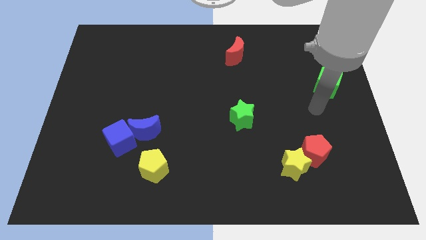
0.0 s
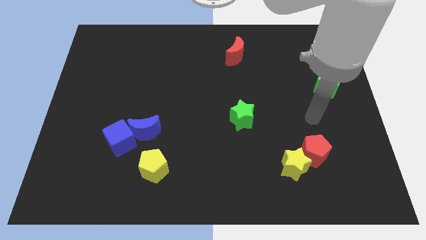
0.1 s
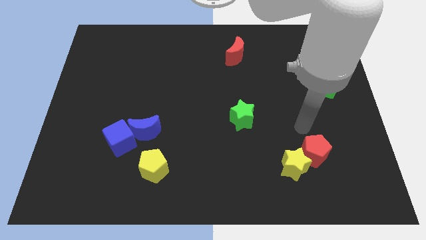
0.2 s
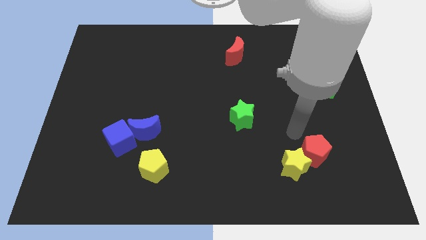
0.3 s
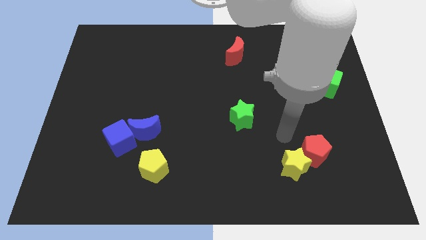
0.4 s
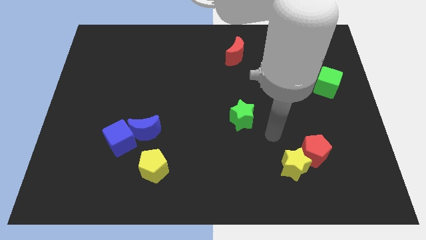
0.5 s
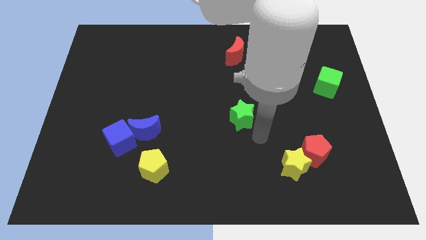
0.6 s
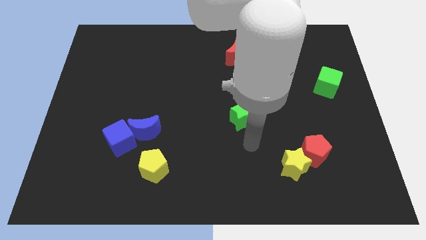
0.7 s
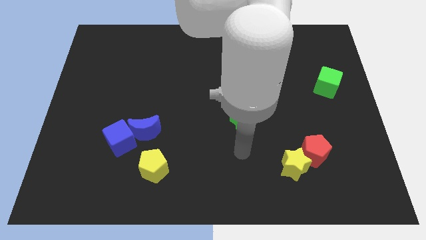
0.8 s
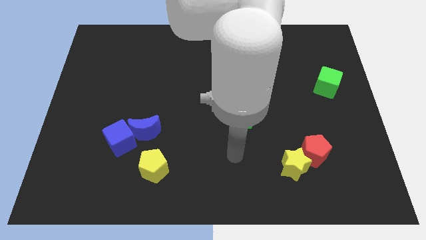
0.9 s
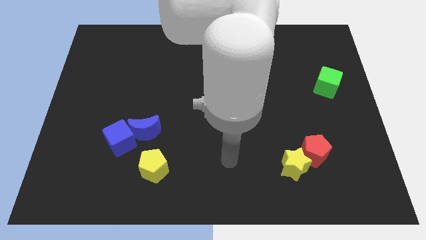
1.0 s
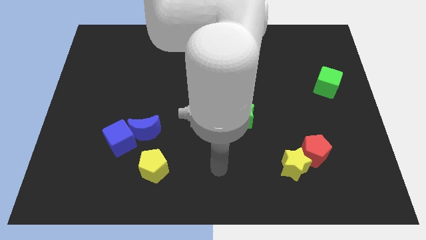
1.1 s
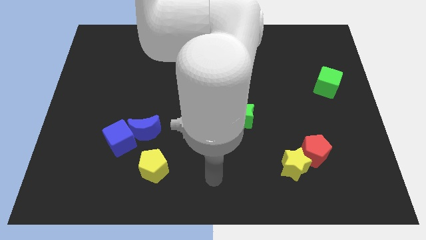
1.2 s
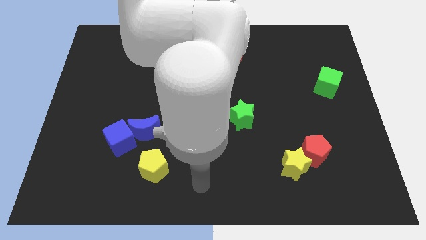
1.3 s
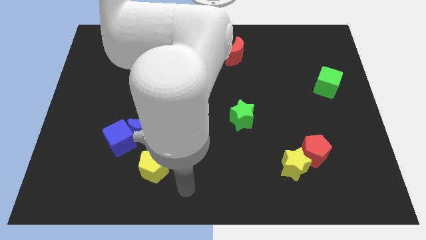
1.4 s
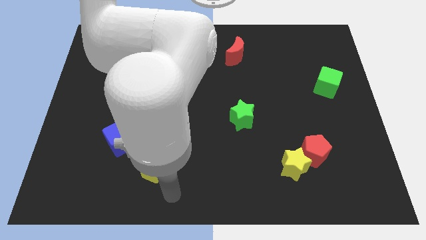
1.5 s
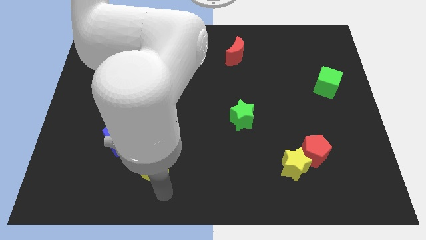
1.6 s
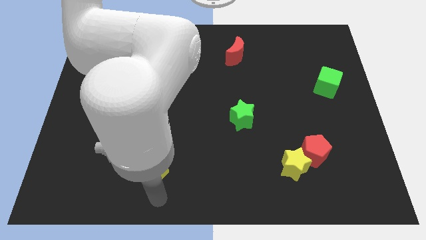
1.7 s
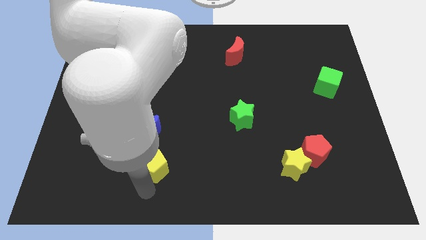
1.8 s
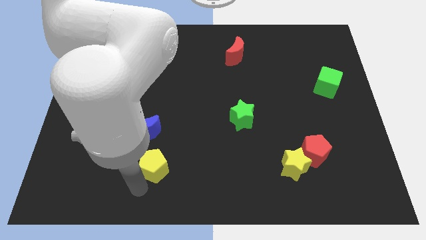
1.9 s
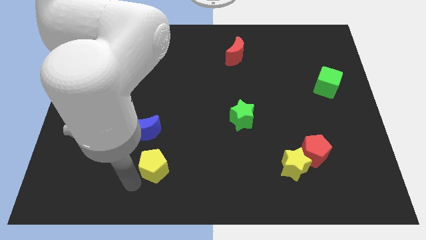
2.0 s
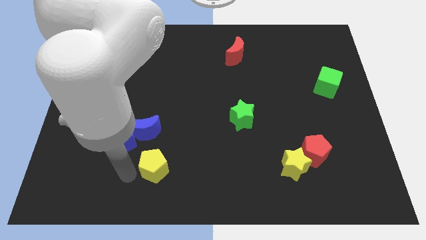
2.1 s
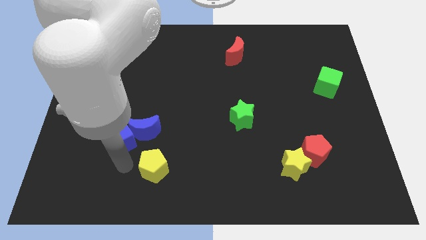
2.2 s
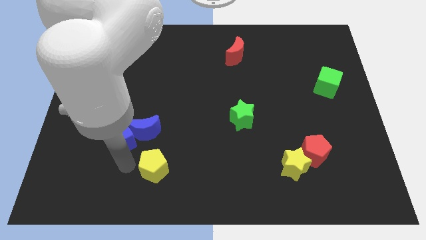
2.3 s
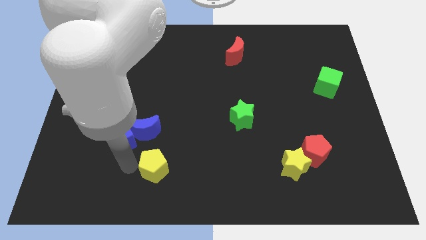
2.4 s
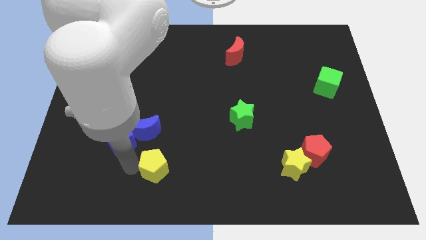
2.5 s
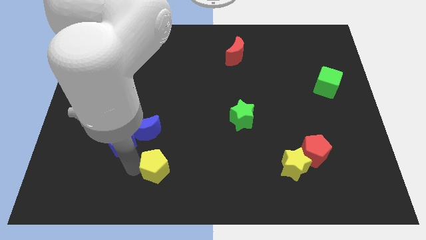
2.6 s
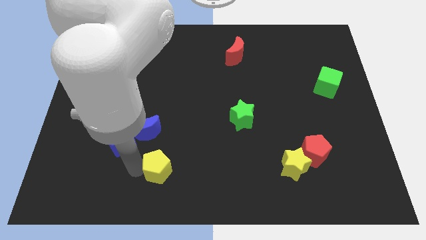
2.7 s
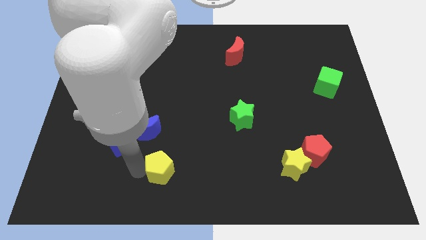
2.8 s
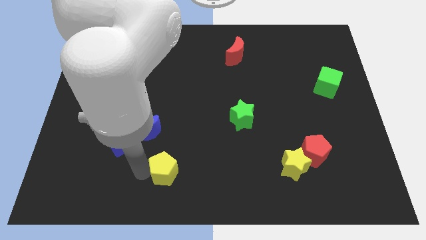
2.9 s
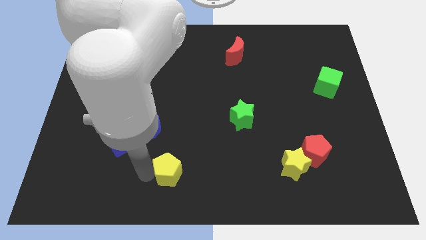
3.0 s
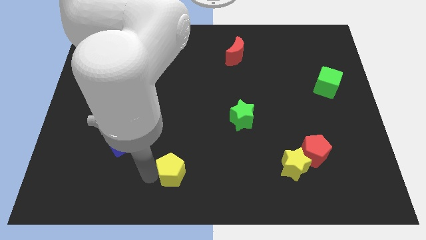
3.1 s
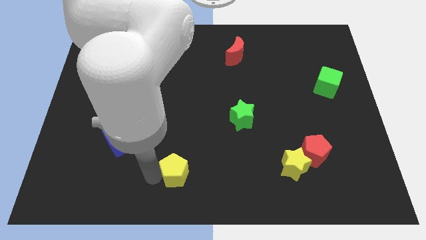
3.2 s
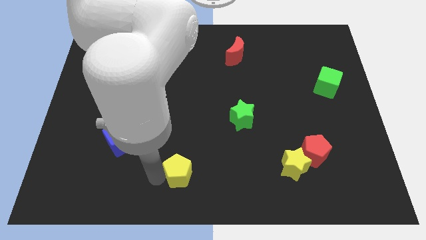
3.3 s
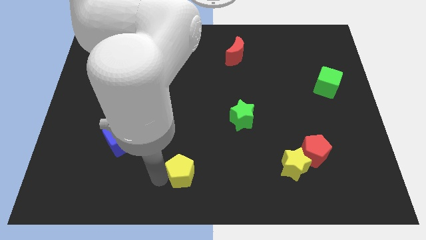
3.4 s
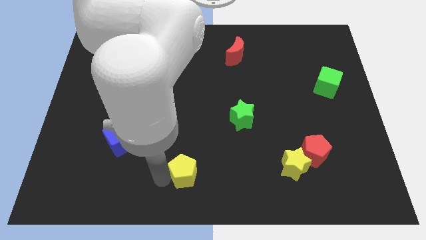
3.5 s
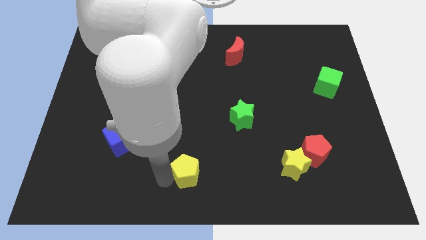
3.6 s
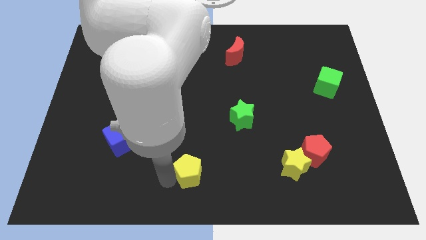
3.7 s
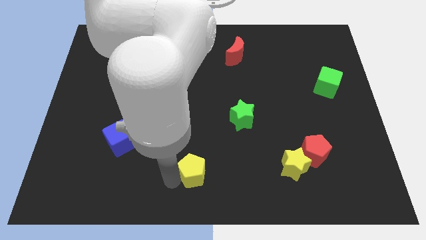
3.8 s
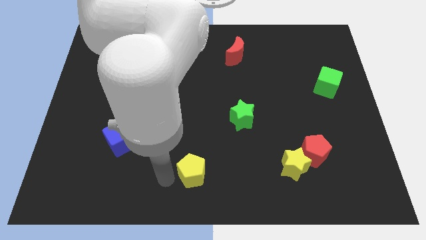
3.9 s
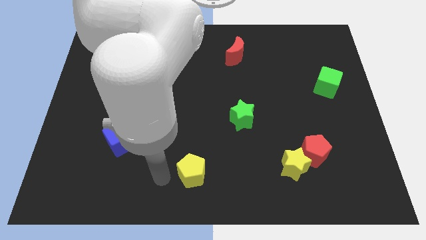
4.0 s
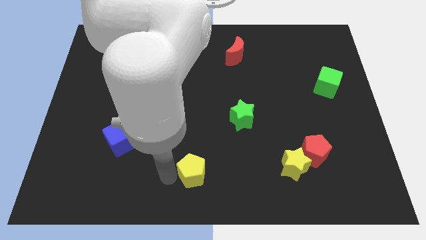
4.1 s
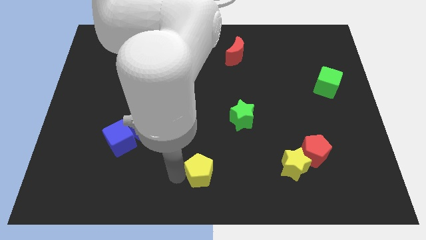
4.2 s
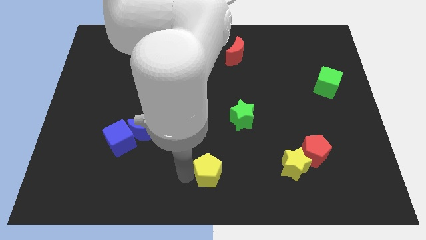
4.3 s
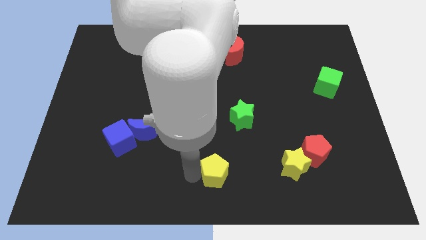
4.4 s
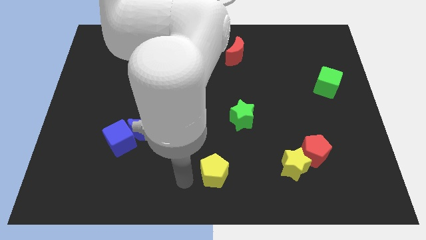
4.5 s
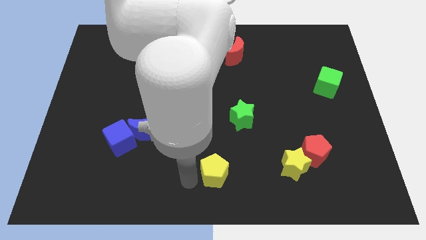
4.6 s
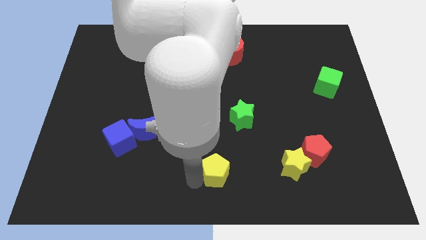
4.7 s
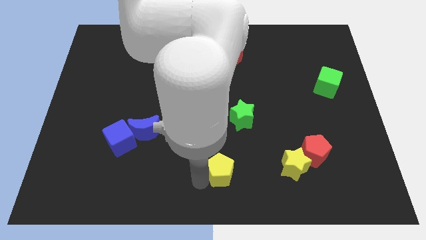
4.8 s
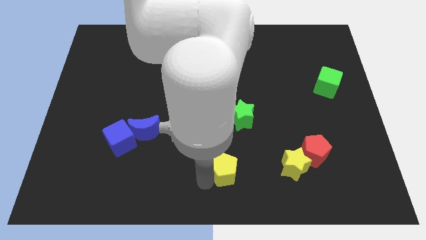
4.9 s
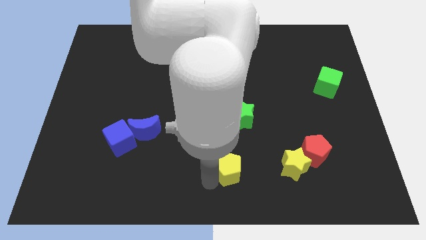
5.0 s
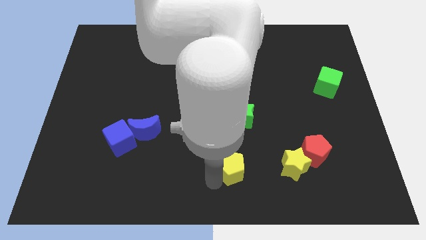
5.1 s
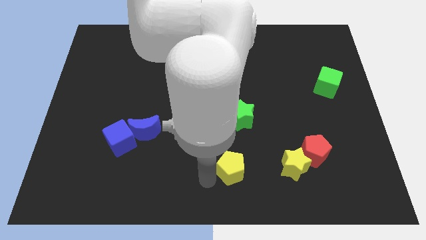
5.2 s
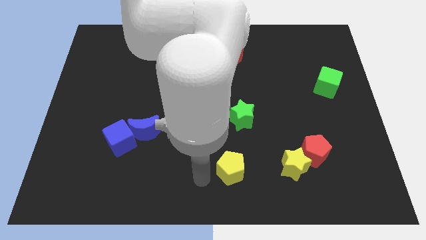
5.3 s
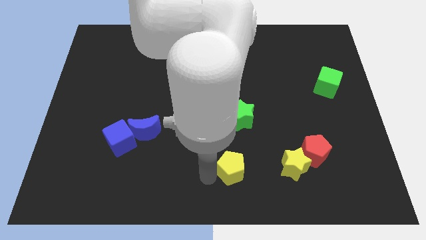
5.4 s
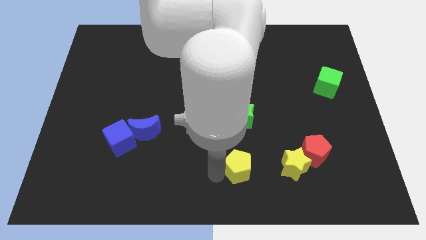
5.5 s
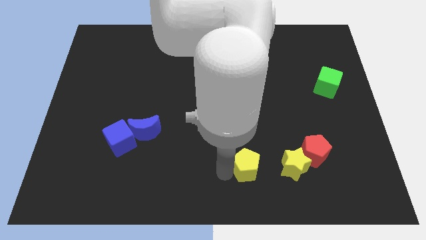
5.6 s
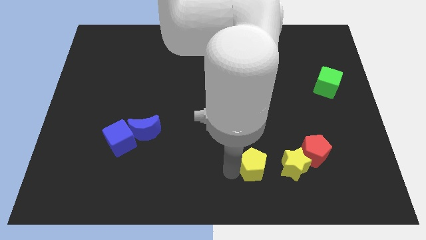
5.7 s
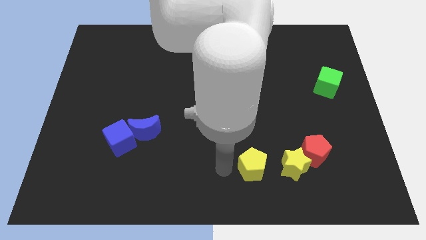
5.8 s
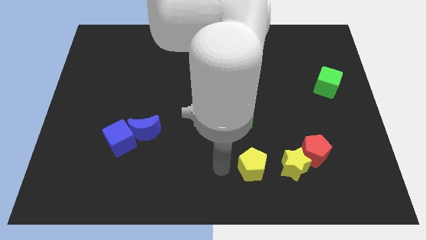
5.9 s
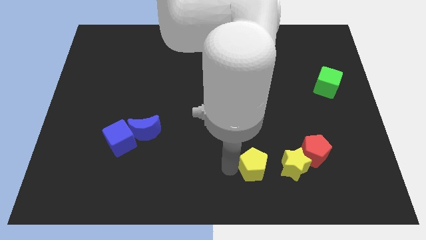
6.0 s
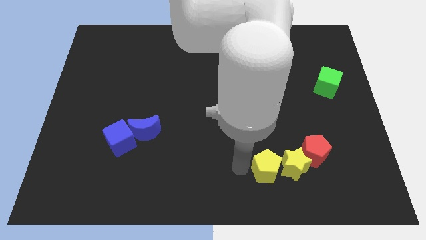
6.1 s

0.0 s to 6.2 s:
slide the yellow pentagon to the yellow star

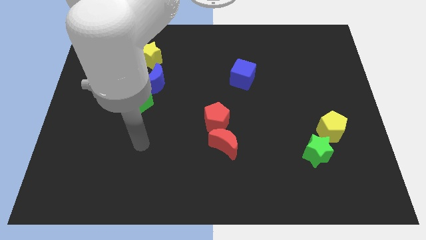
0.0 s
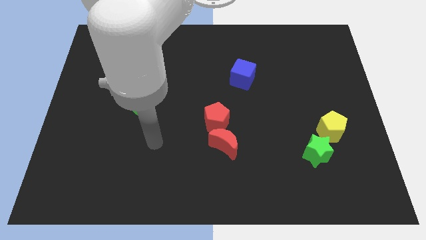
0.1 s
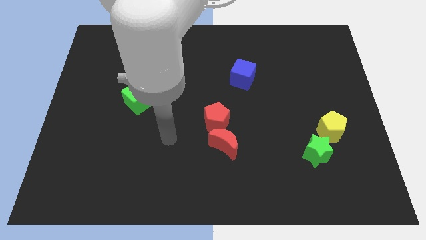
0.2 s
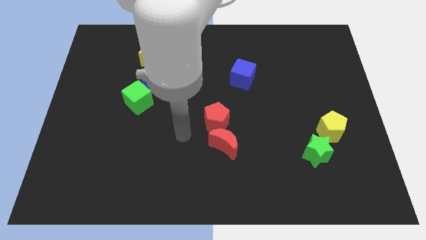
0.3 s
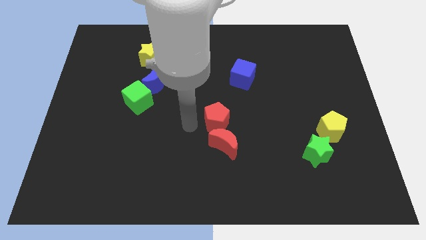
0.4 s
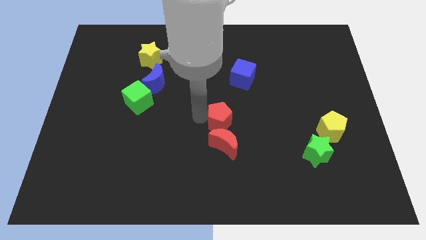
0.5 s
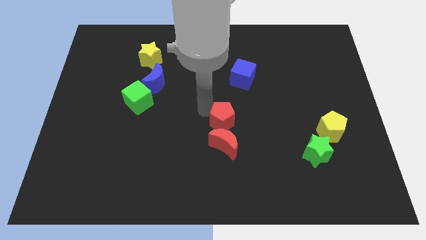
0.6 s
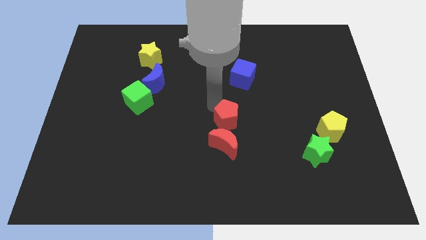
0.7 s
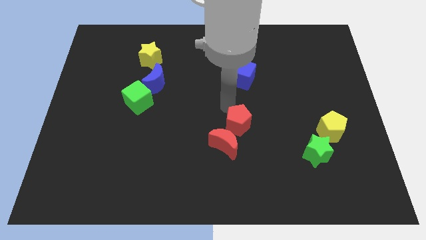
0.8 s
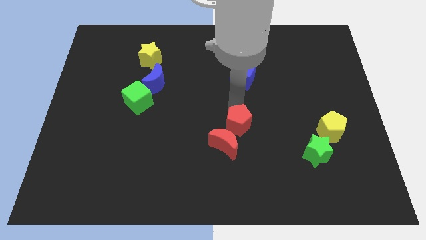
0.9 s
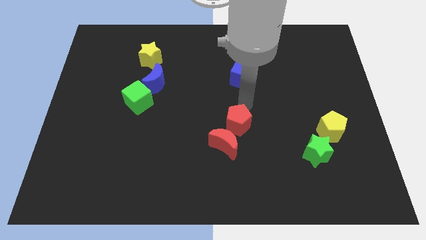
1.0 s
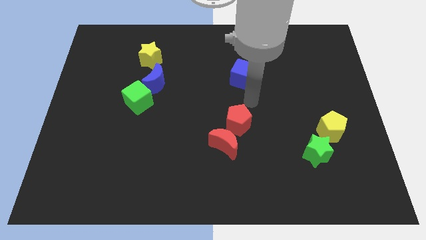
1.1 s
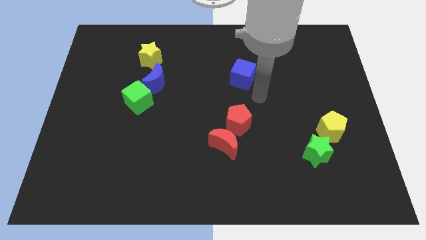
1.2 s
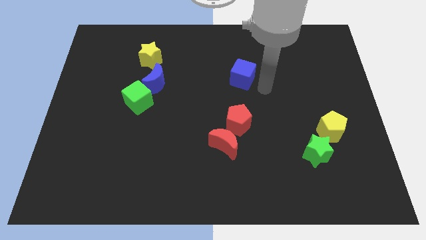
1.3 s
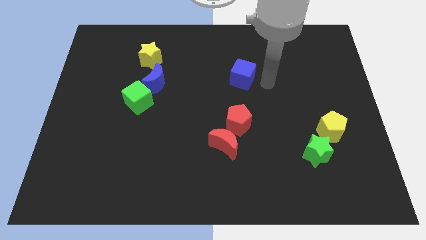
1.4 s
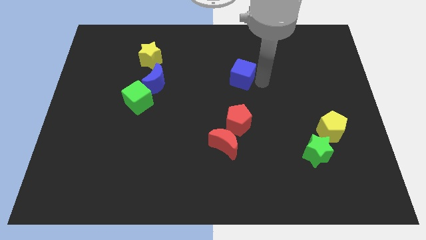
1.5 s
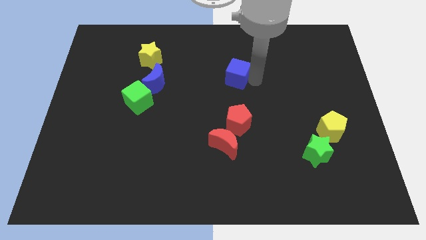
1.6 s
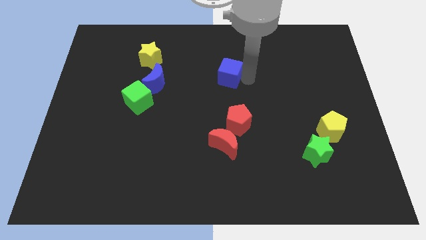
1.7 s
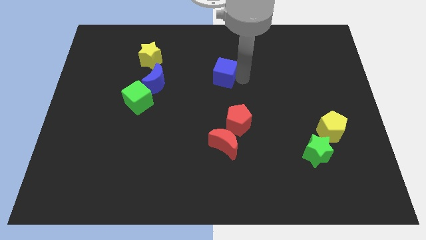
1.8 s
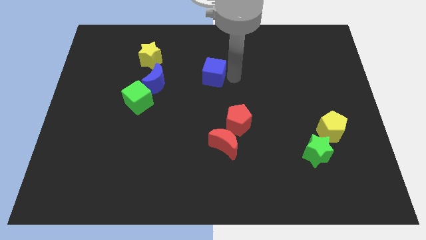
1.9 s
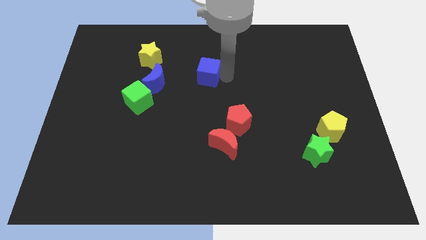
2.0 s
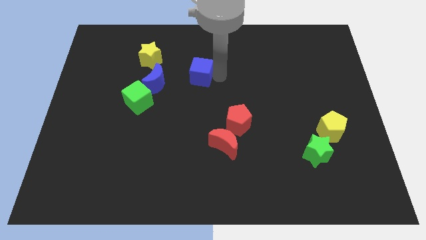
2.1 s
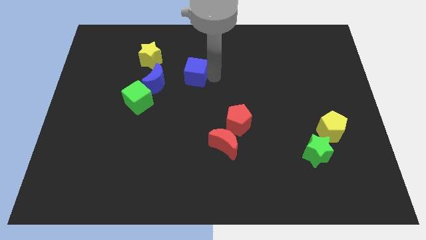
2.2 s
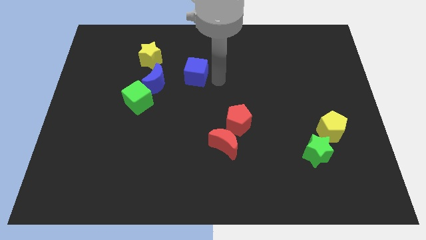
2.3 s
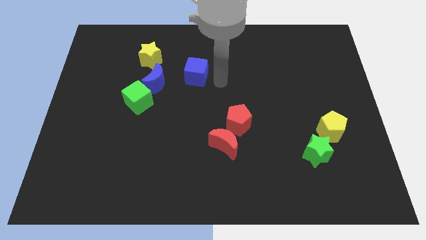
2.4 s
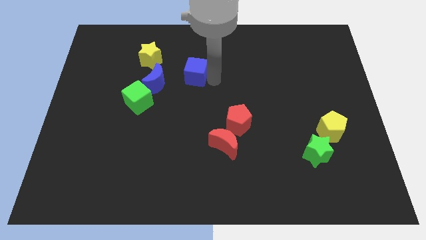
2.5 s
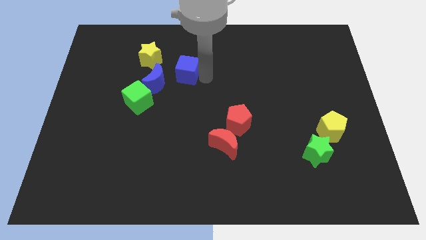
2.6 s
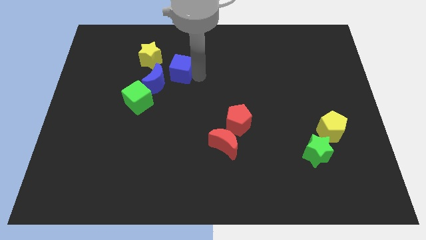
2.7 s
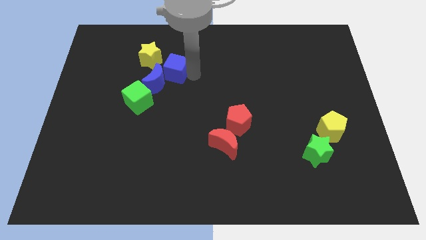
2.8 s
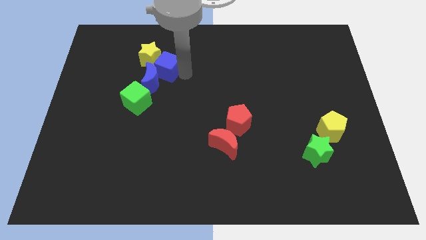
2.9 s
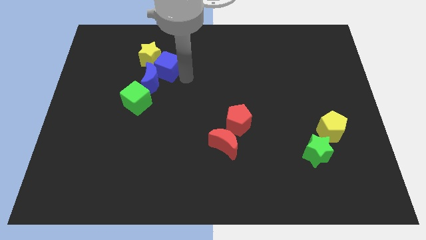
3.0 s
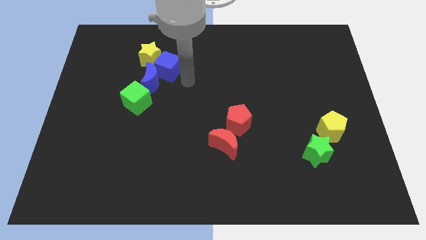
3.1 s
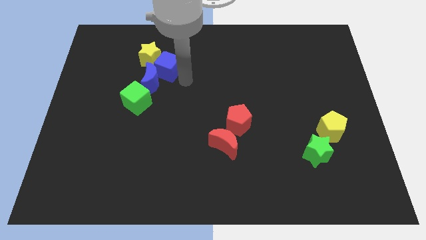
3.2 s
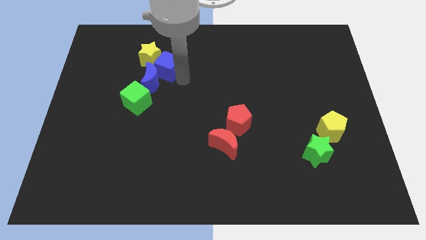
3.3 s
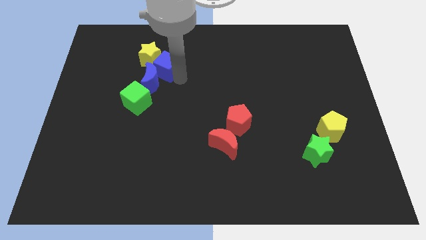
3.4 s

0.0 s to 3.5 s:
slide the blue cube towards the yellow star
